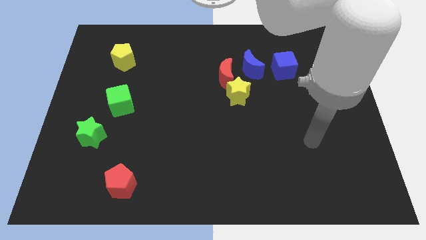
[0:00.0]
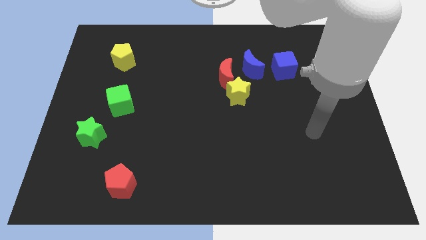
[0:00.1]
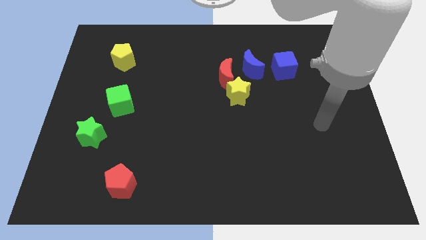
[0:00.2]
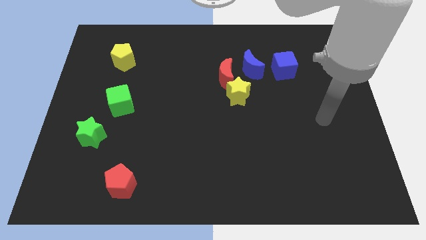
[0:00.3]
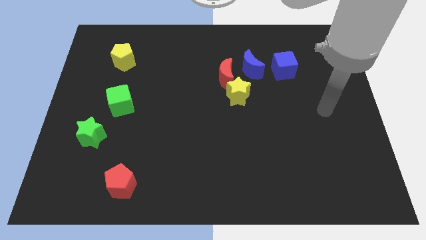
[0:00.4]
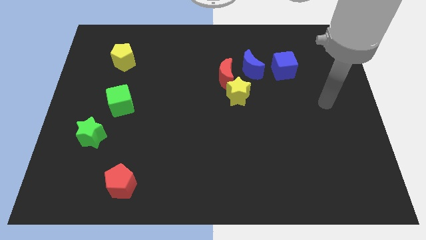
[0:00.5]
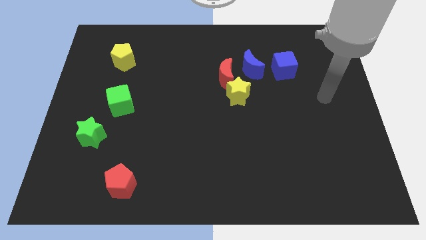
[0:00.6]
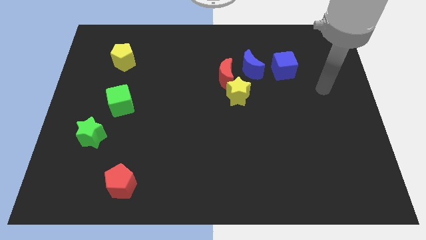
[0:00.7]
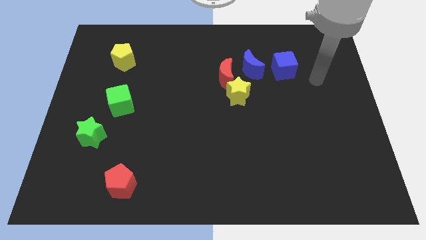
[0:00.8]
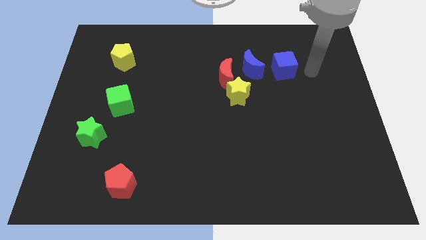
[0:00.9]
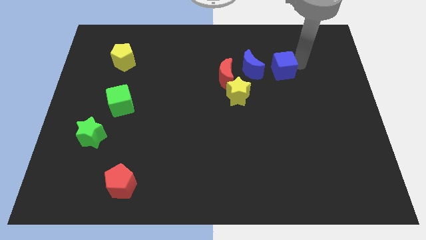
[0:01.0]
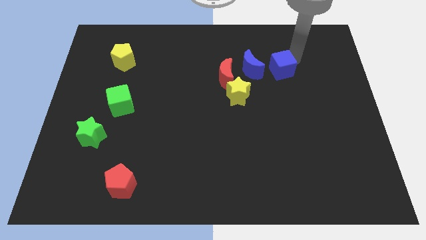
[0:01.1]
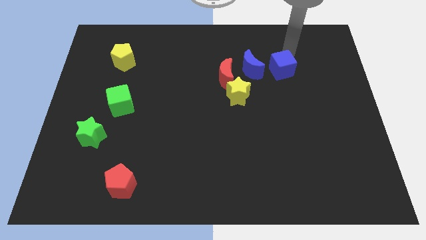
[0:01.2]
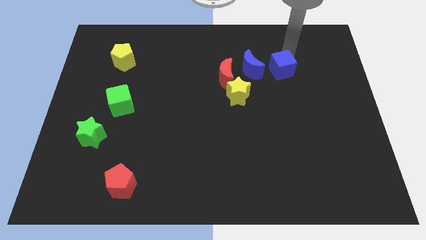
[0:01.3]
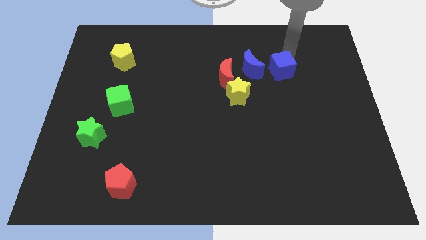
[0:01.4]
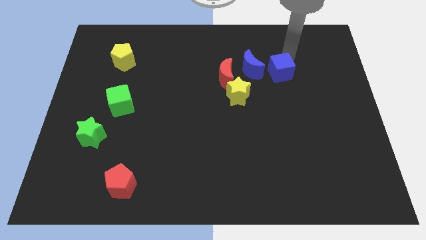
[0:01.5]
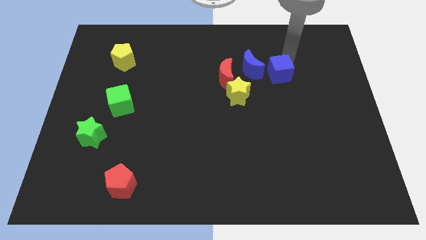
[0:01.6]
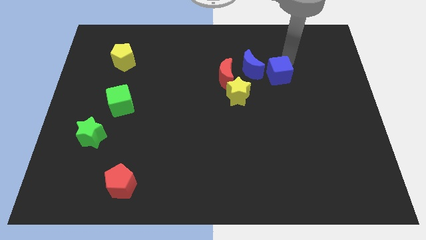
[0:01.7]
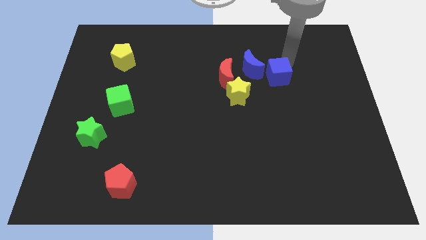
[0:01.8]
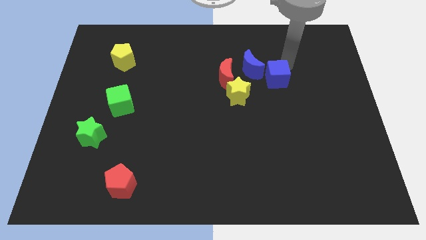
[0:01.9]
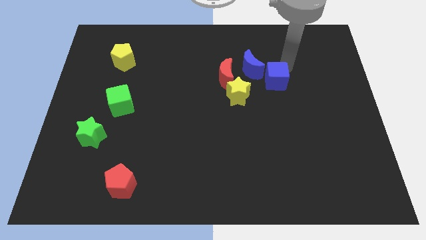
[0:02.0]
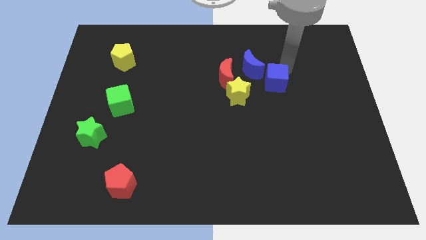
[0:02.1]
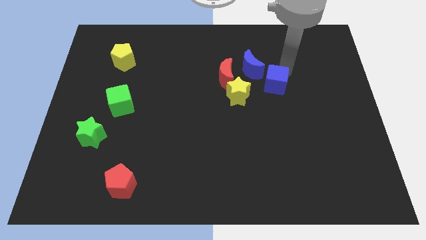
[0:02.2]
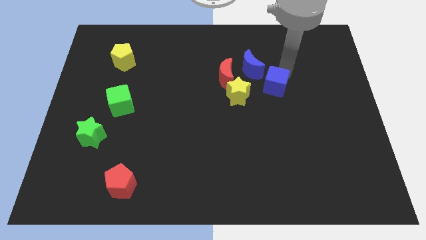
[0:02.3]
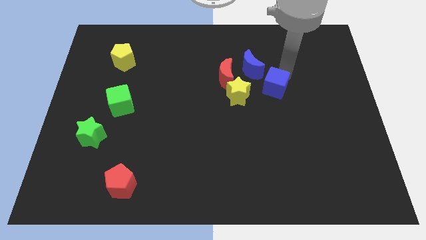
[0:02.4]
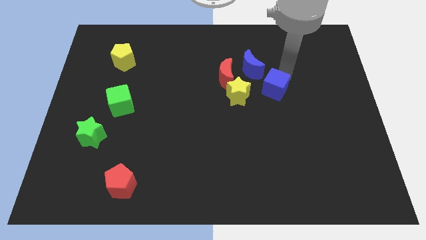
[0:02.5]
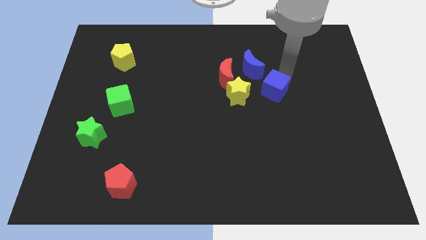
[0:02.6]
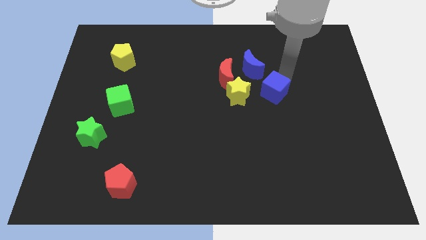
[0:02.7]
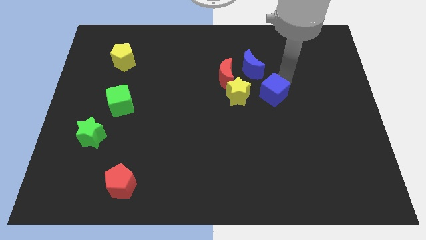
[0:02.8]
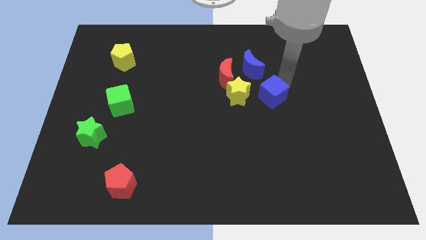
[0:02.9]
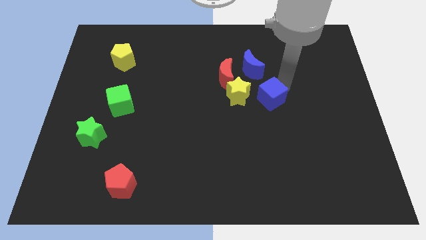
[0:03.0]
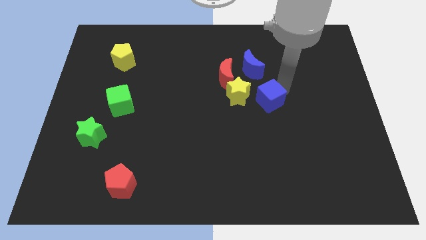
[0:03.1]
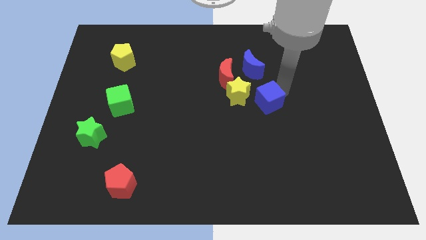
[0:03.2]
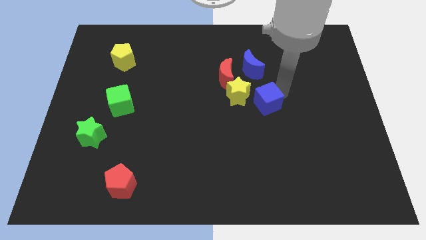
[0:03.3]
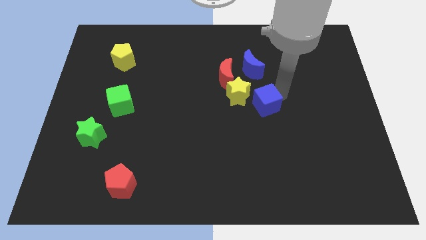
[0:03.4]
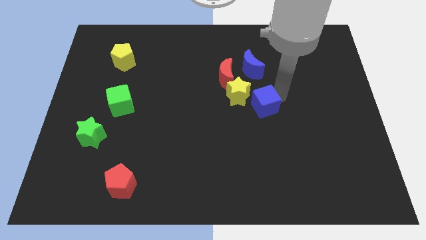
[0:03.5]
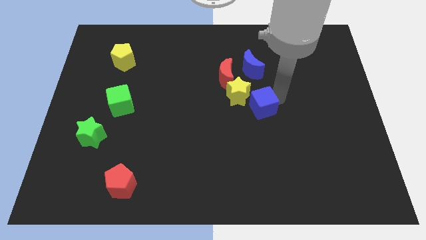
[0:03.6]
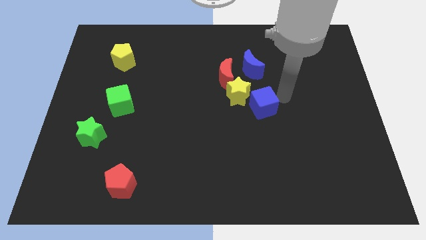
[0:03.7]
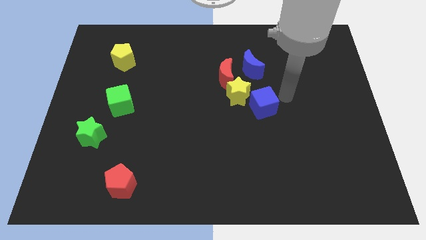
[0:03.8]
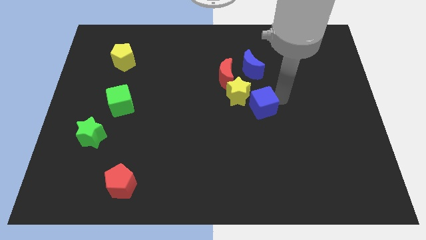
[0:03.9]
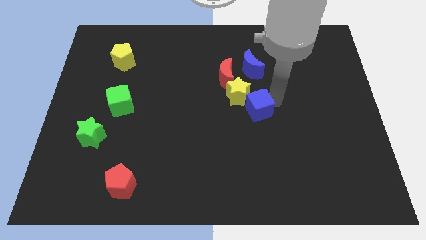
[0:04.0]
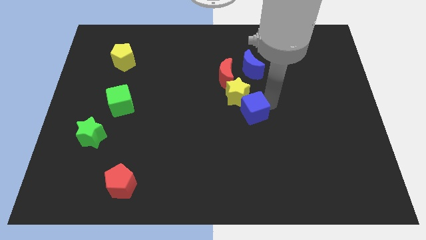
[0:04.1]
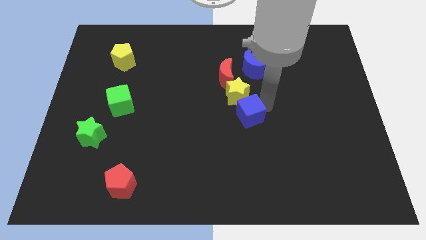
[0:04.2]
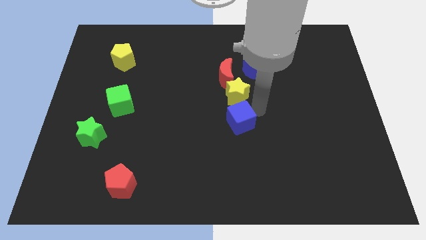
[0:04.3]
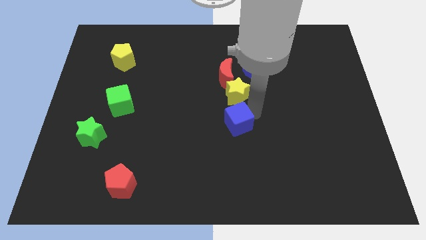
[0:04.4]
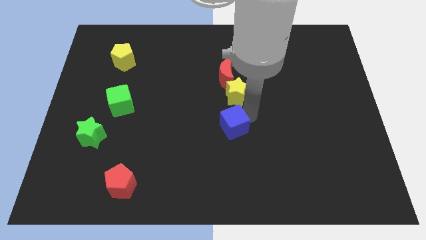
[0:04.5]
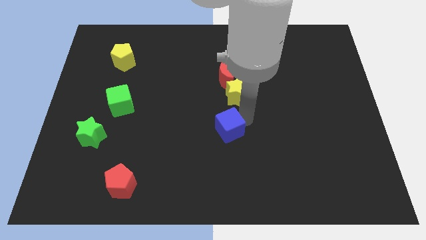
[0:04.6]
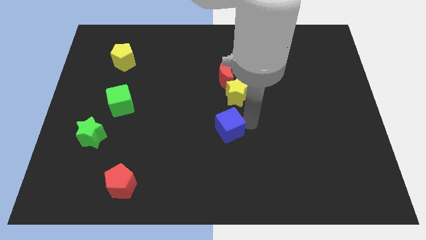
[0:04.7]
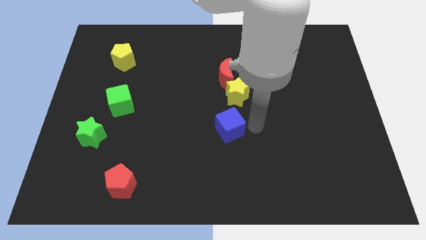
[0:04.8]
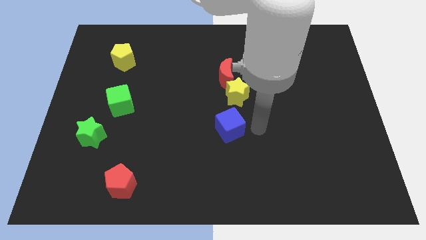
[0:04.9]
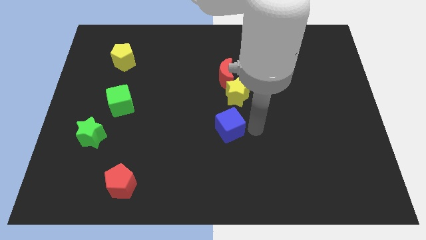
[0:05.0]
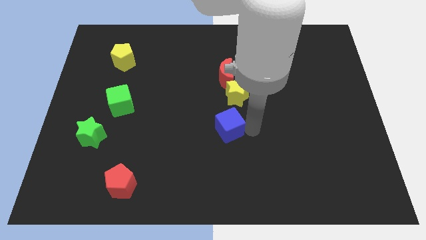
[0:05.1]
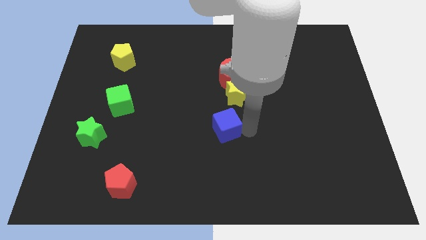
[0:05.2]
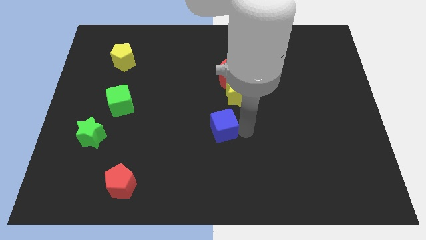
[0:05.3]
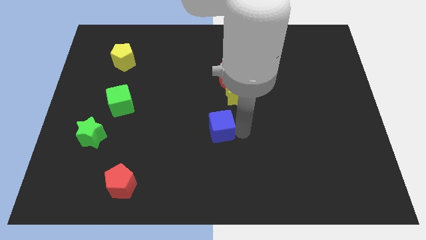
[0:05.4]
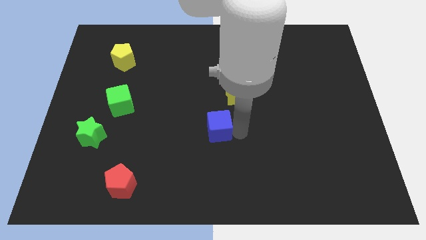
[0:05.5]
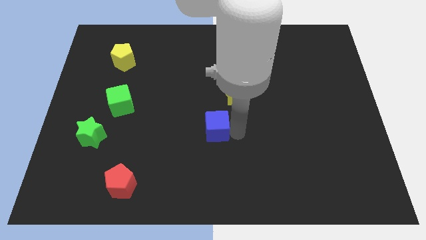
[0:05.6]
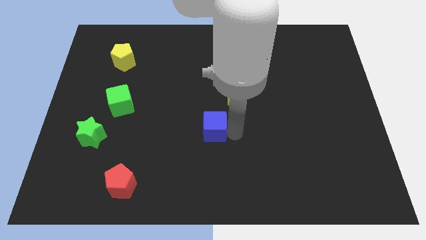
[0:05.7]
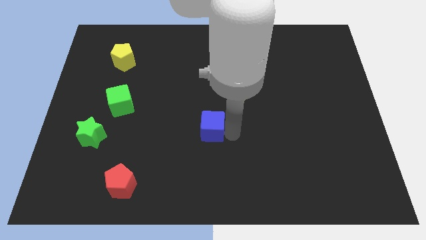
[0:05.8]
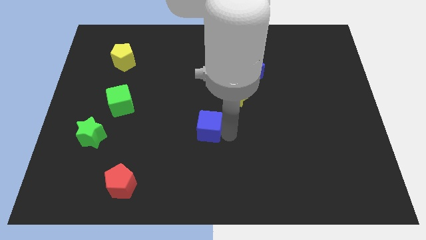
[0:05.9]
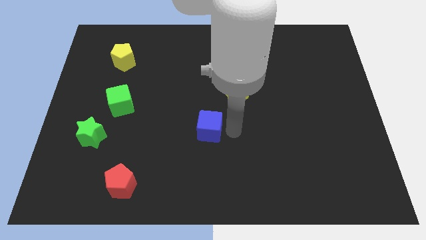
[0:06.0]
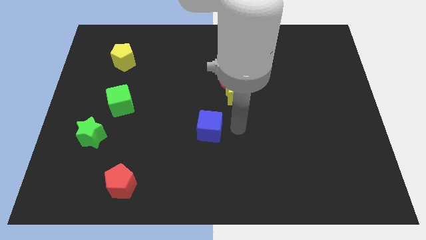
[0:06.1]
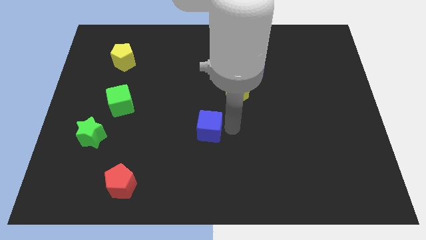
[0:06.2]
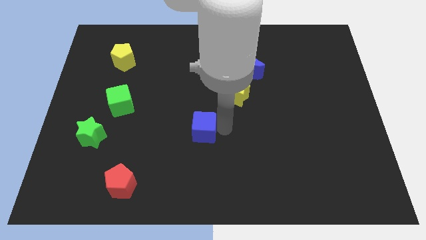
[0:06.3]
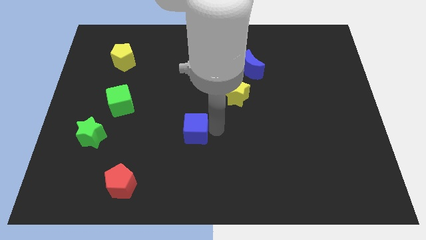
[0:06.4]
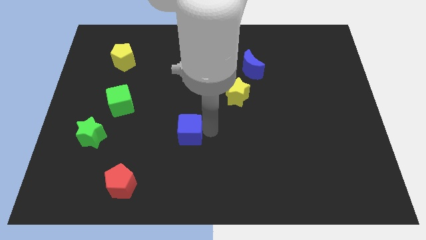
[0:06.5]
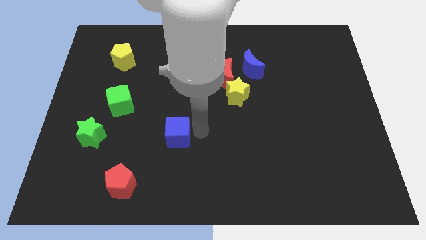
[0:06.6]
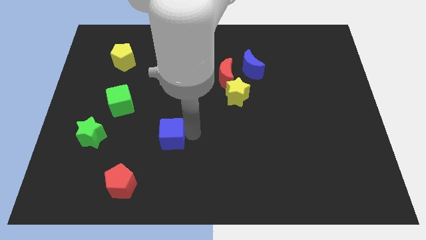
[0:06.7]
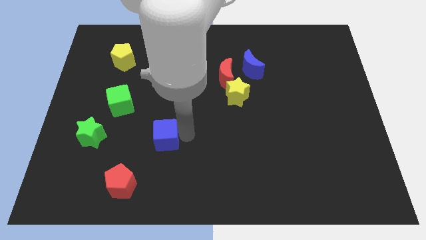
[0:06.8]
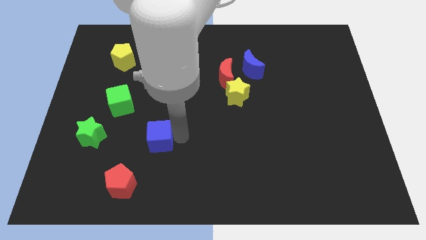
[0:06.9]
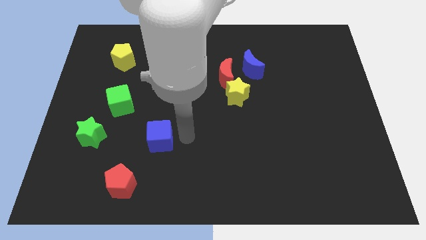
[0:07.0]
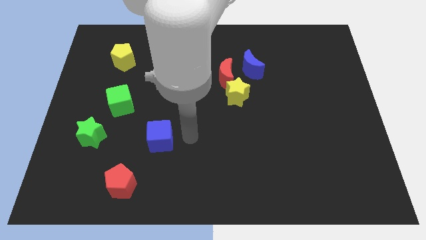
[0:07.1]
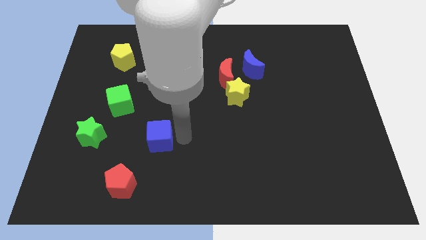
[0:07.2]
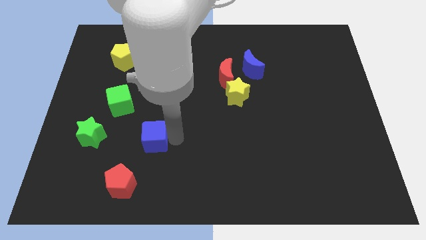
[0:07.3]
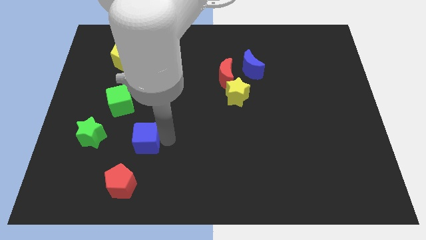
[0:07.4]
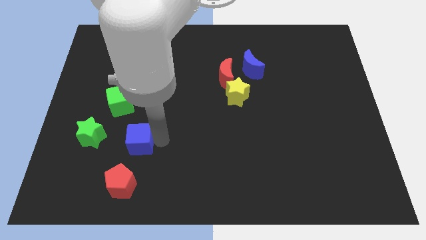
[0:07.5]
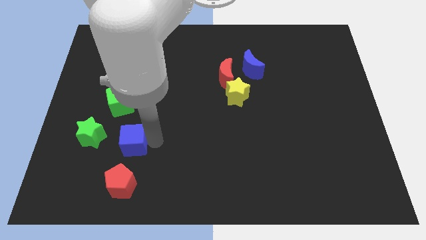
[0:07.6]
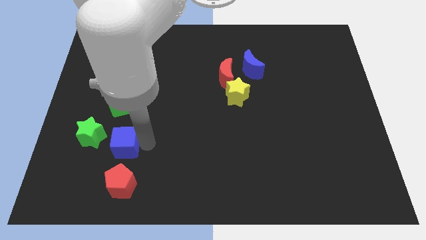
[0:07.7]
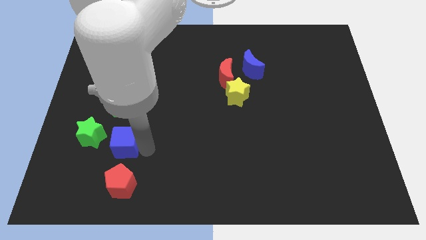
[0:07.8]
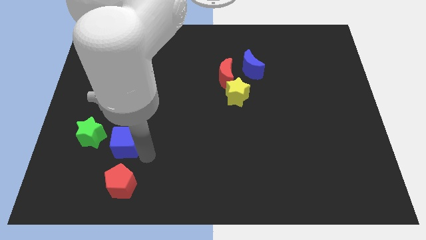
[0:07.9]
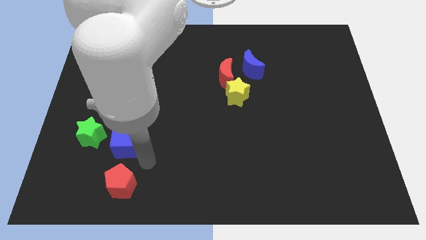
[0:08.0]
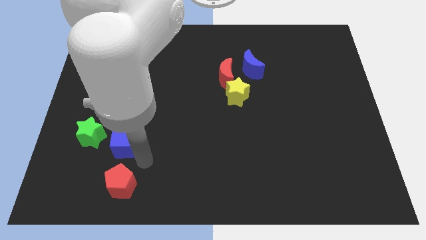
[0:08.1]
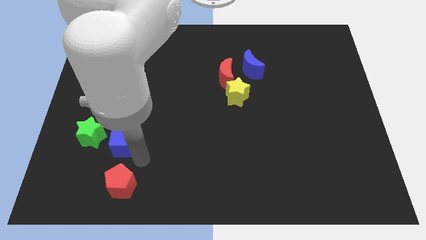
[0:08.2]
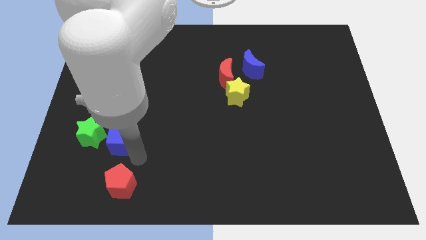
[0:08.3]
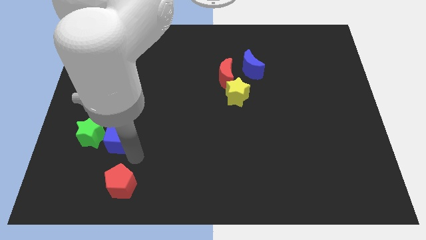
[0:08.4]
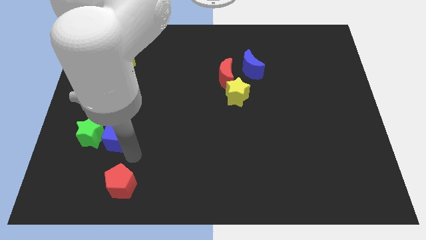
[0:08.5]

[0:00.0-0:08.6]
put the blue cube next to the green star
